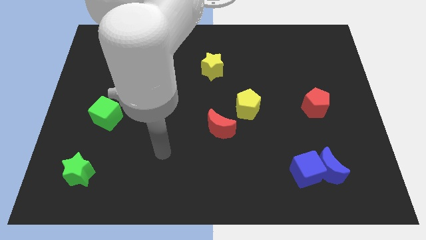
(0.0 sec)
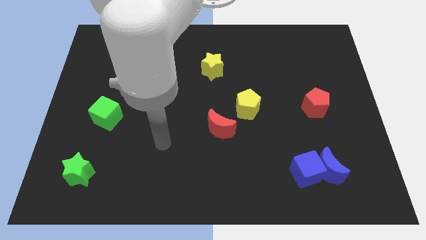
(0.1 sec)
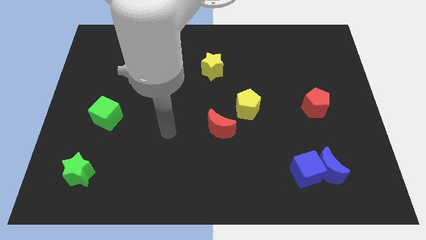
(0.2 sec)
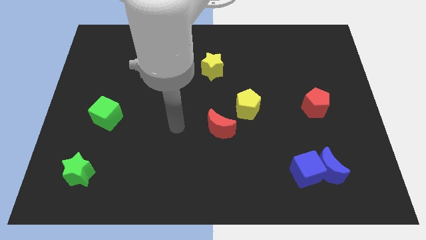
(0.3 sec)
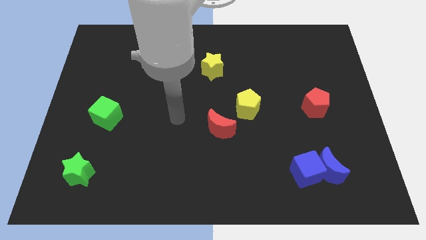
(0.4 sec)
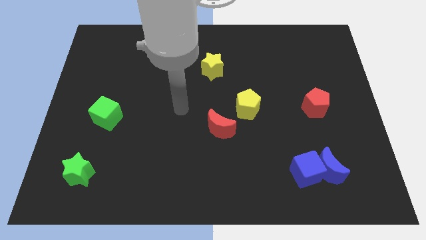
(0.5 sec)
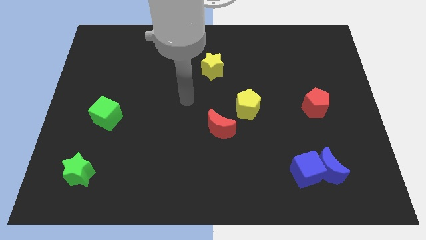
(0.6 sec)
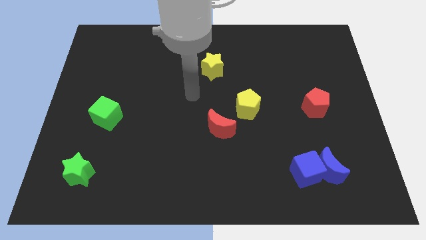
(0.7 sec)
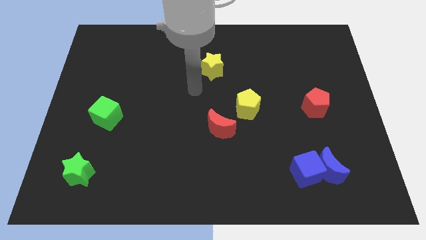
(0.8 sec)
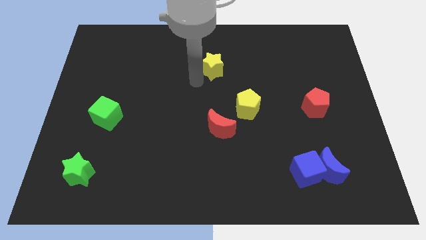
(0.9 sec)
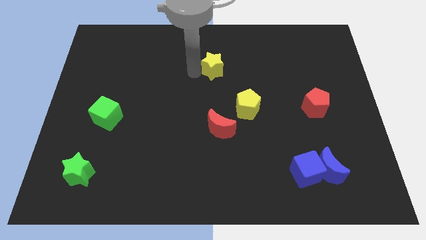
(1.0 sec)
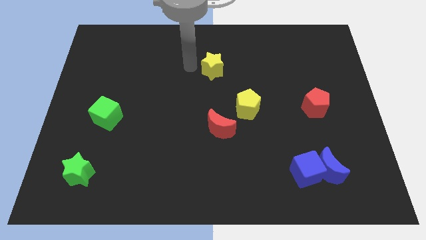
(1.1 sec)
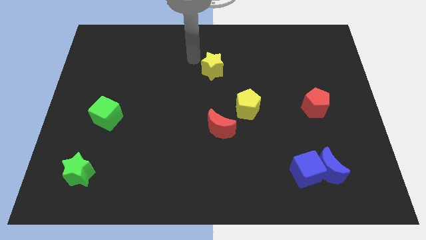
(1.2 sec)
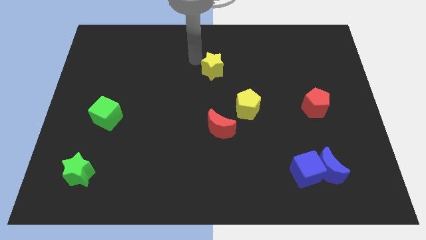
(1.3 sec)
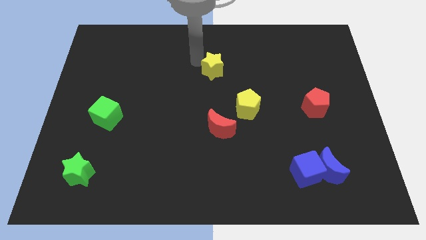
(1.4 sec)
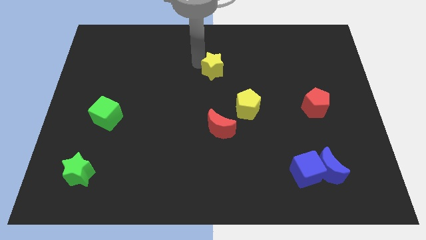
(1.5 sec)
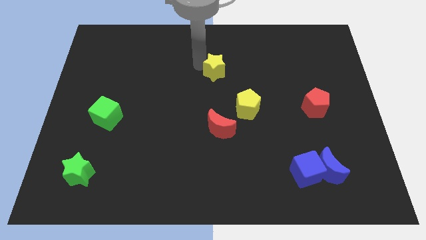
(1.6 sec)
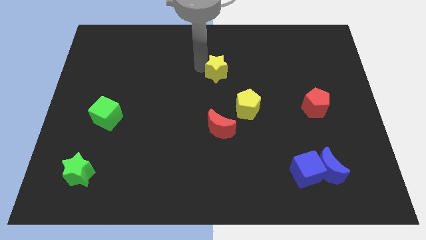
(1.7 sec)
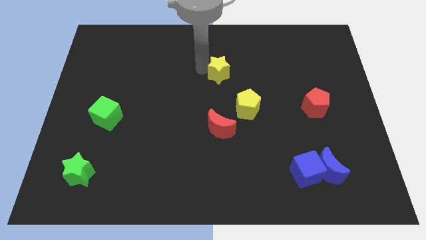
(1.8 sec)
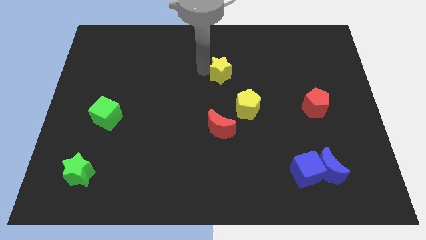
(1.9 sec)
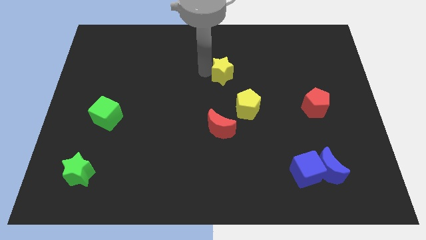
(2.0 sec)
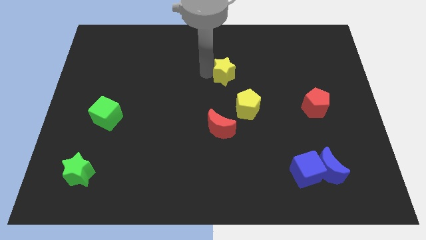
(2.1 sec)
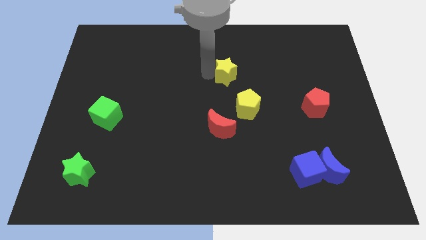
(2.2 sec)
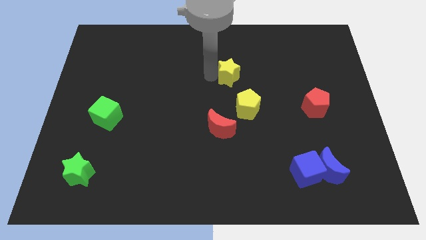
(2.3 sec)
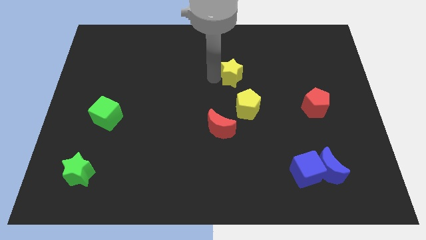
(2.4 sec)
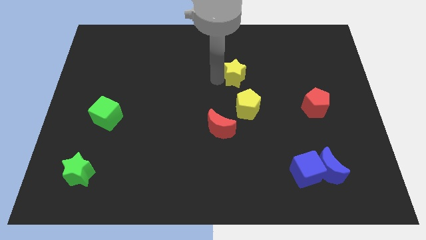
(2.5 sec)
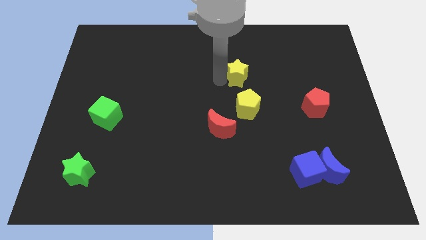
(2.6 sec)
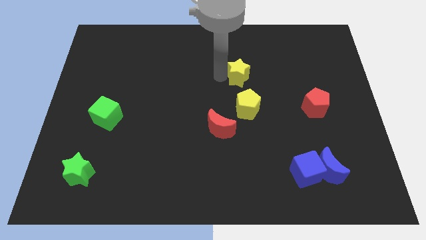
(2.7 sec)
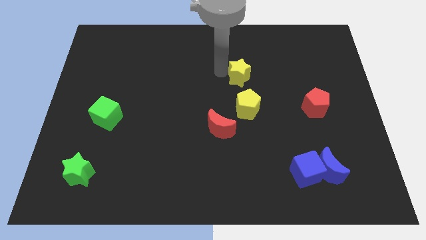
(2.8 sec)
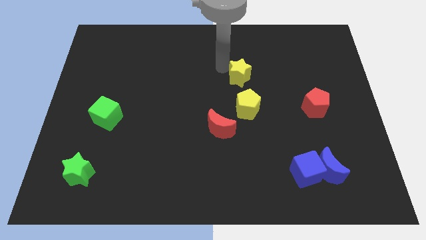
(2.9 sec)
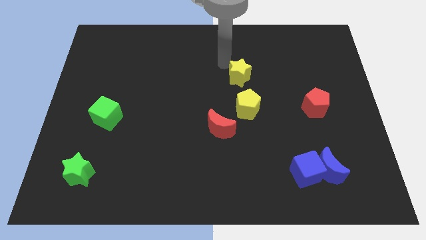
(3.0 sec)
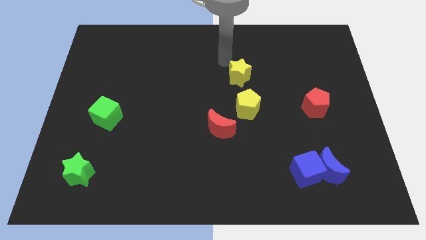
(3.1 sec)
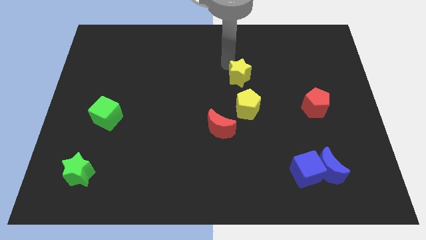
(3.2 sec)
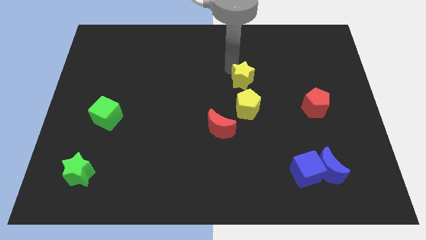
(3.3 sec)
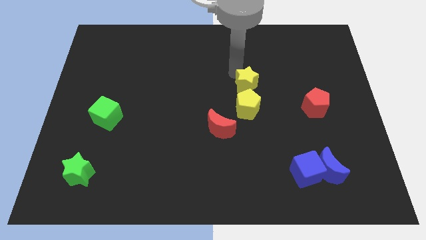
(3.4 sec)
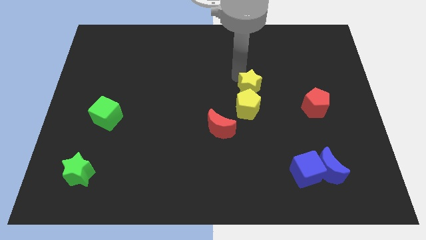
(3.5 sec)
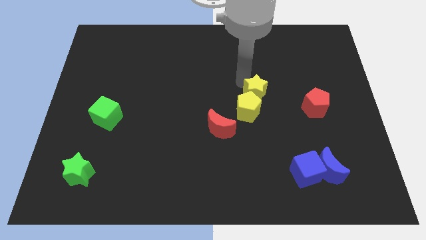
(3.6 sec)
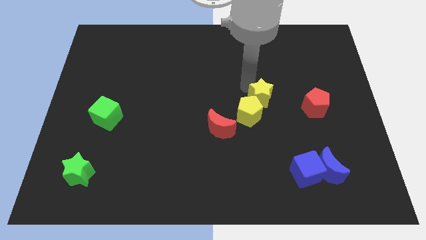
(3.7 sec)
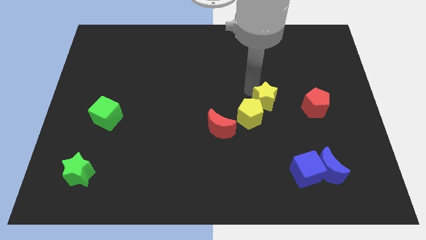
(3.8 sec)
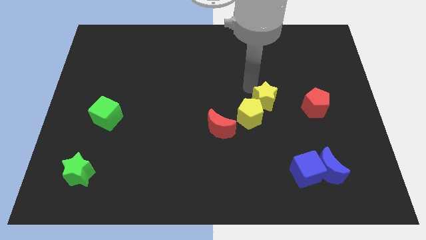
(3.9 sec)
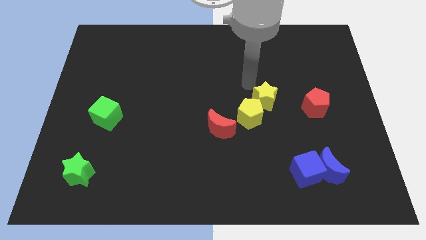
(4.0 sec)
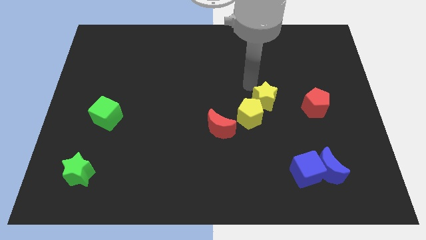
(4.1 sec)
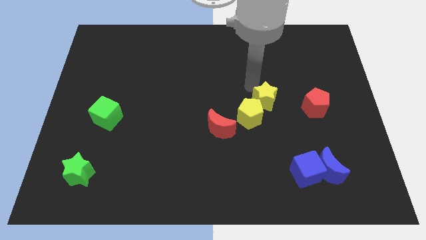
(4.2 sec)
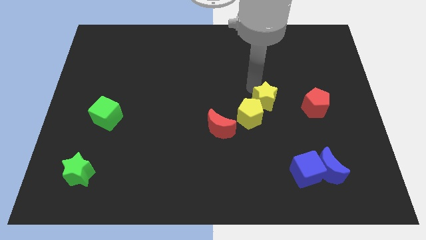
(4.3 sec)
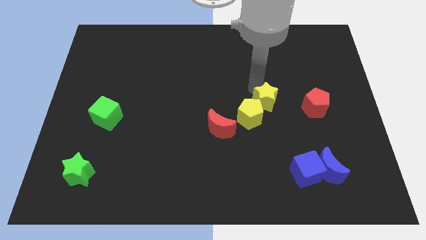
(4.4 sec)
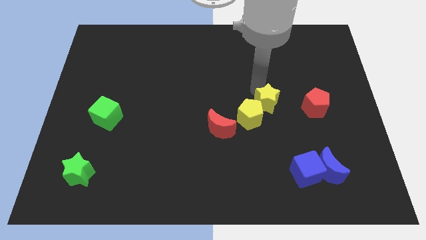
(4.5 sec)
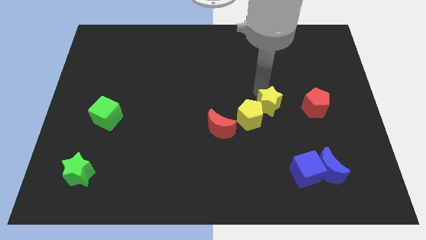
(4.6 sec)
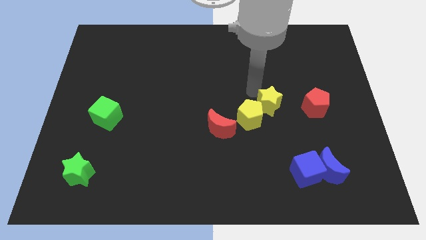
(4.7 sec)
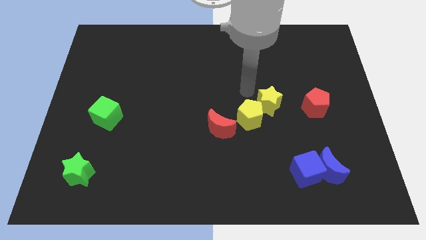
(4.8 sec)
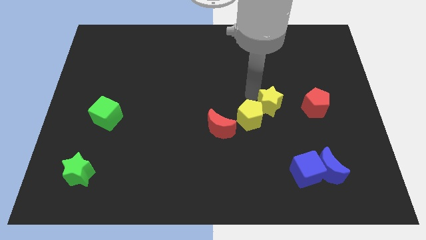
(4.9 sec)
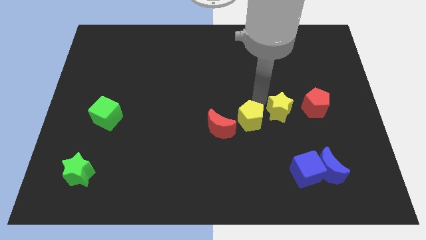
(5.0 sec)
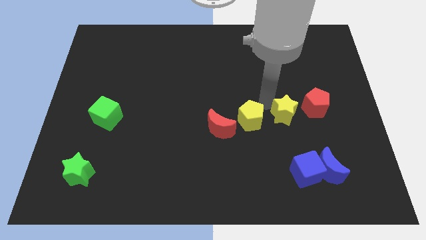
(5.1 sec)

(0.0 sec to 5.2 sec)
push the yellow star to the bottom left of the red pentagon

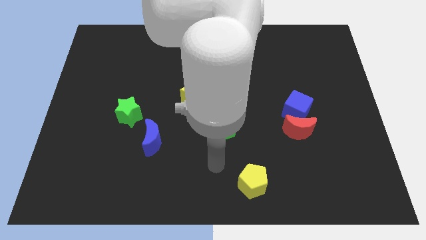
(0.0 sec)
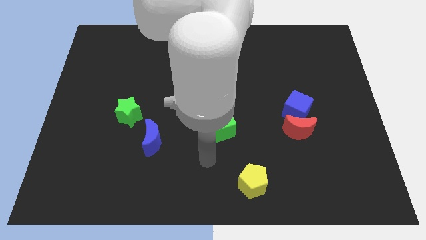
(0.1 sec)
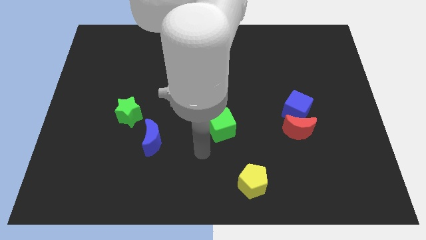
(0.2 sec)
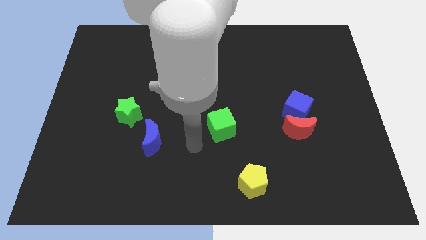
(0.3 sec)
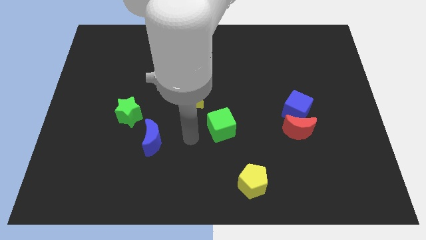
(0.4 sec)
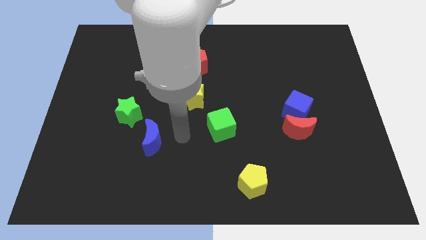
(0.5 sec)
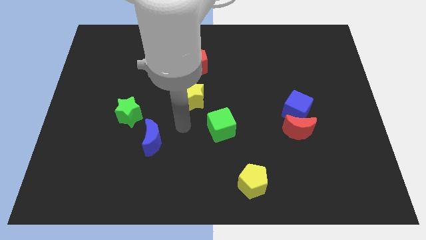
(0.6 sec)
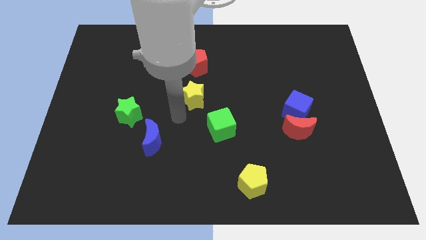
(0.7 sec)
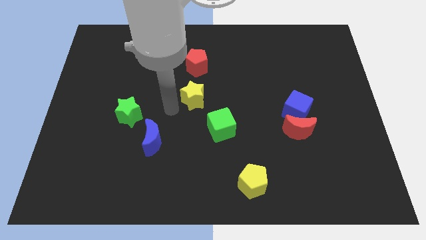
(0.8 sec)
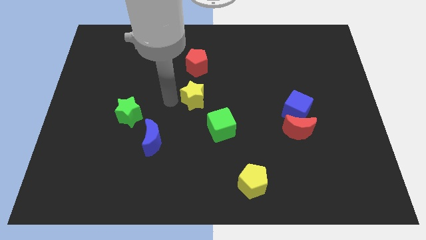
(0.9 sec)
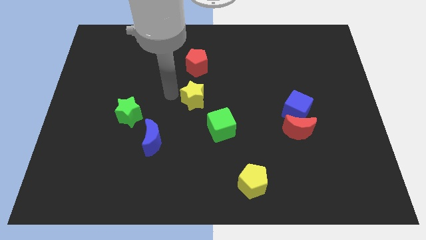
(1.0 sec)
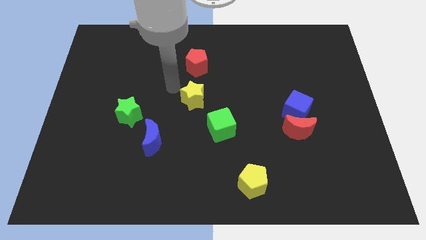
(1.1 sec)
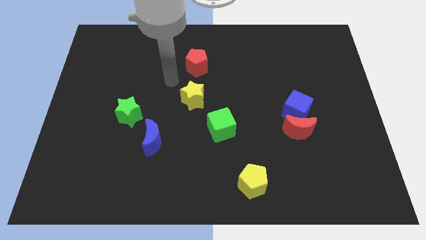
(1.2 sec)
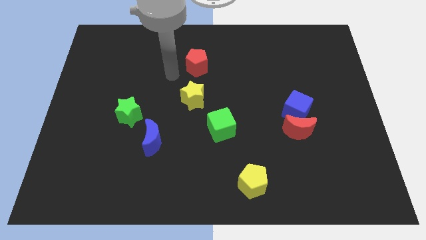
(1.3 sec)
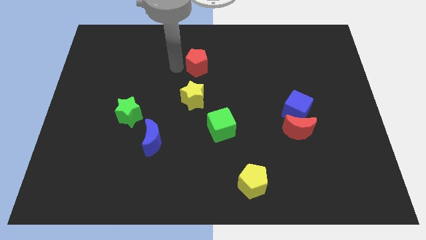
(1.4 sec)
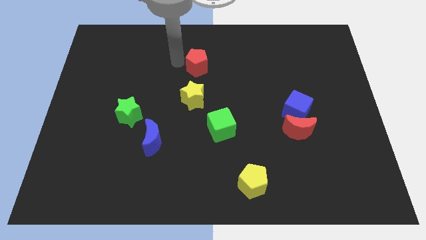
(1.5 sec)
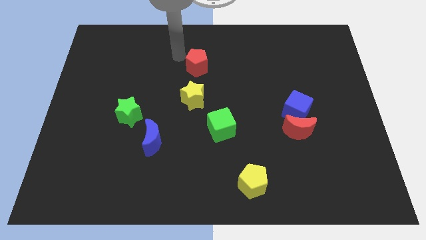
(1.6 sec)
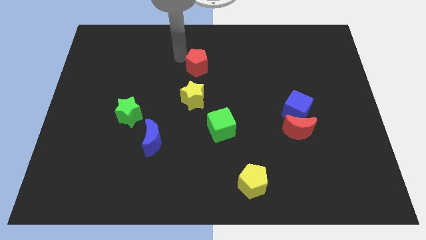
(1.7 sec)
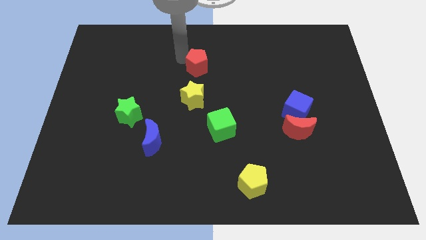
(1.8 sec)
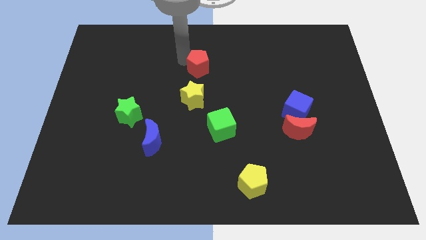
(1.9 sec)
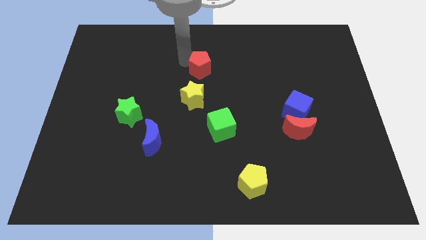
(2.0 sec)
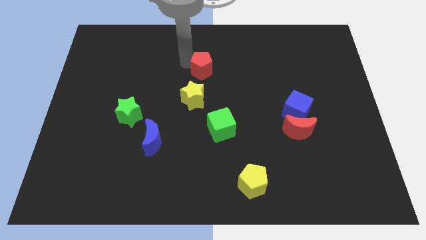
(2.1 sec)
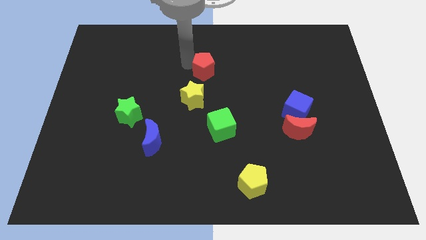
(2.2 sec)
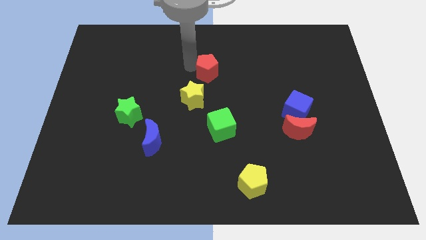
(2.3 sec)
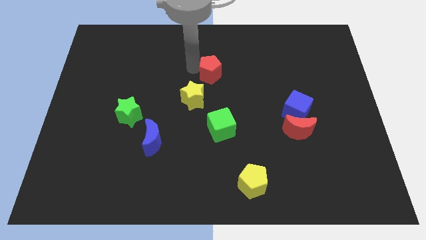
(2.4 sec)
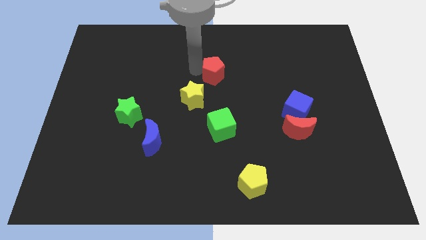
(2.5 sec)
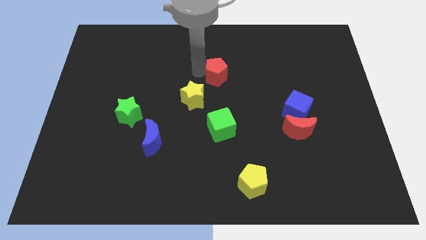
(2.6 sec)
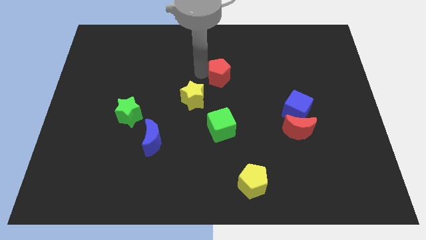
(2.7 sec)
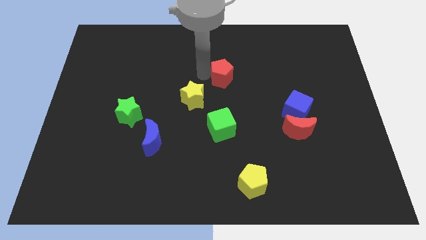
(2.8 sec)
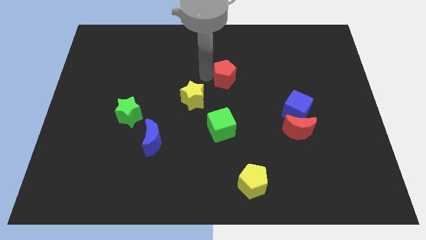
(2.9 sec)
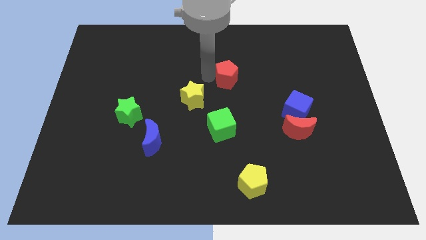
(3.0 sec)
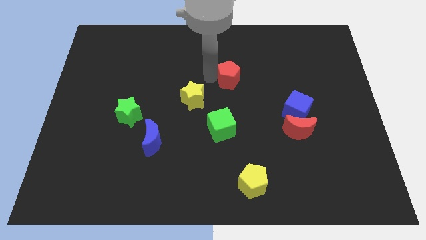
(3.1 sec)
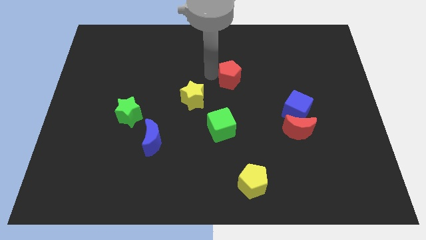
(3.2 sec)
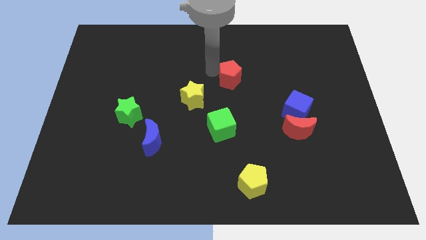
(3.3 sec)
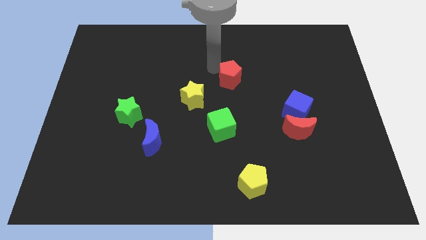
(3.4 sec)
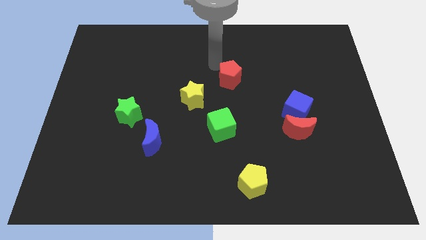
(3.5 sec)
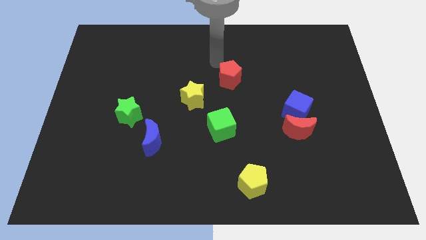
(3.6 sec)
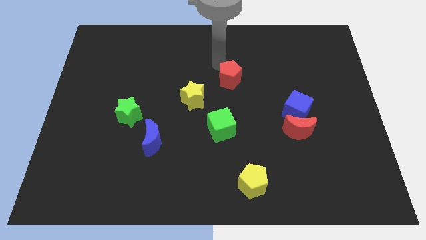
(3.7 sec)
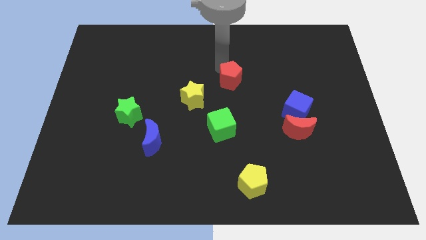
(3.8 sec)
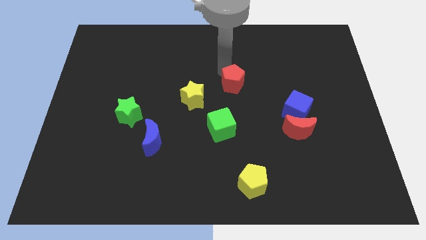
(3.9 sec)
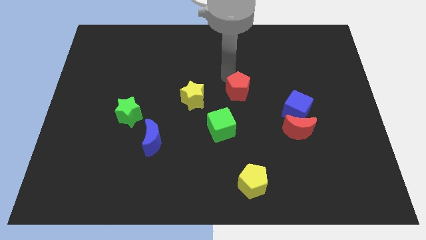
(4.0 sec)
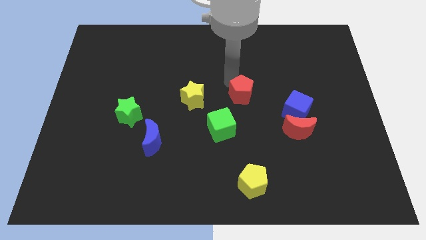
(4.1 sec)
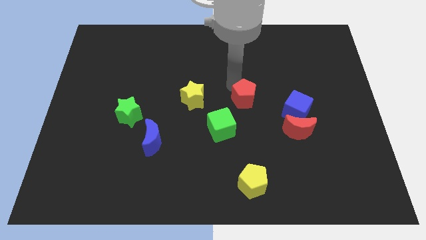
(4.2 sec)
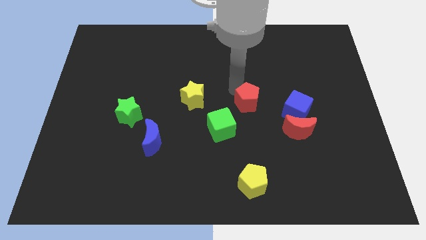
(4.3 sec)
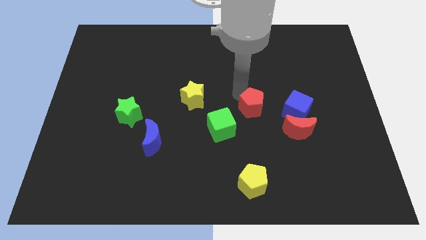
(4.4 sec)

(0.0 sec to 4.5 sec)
push the red pentagon to the top left of the red moon
